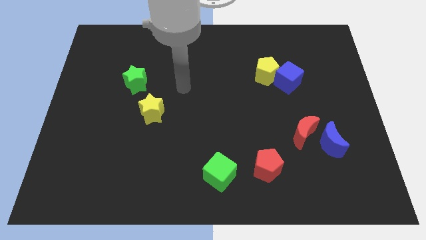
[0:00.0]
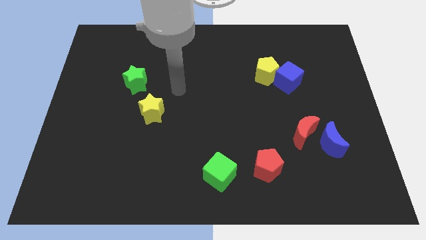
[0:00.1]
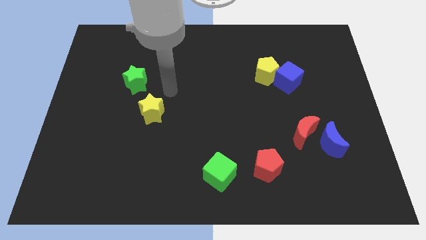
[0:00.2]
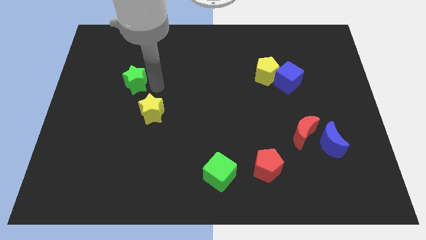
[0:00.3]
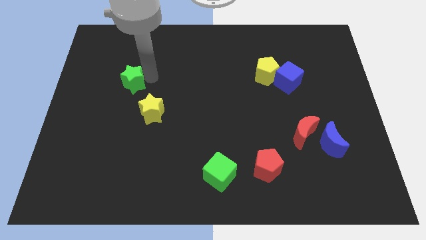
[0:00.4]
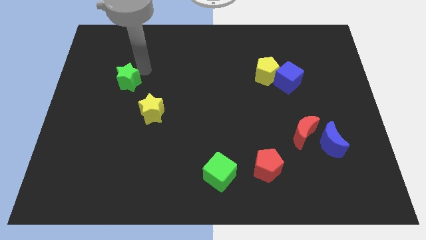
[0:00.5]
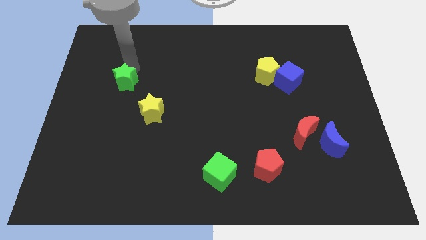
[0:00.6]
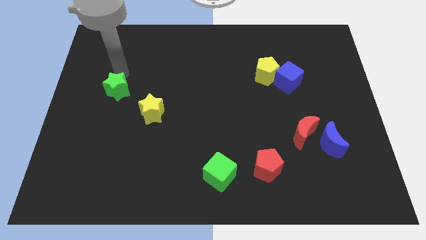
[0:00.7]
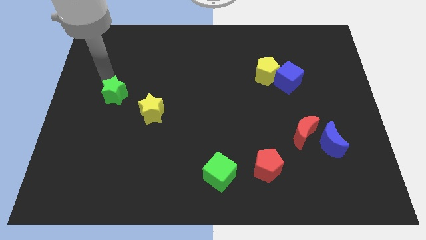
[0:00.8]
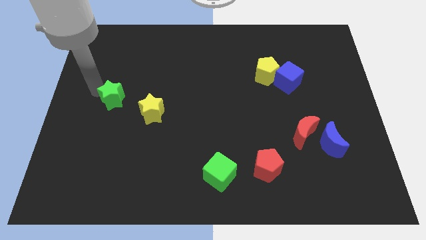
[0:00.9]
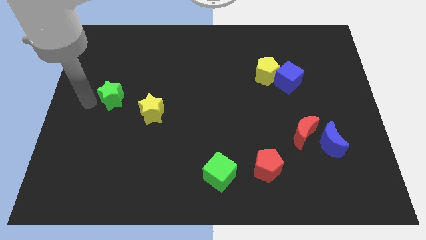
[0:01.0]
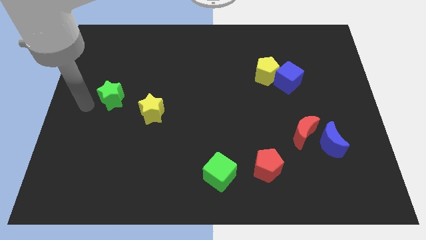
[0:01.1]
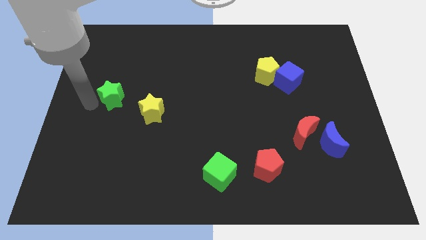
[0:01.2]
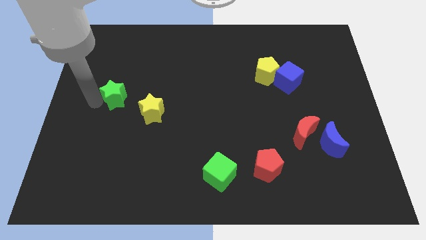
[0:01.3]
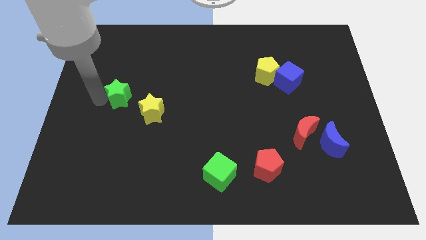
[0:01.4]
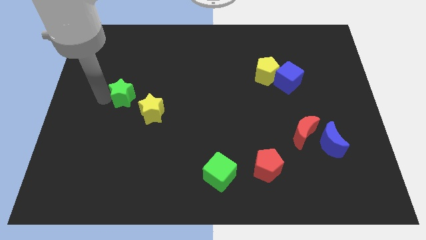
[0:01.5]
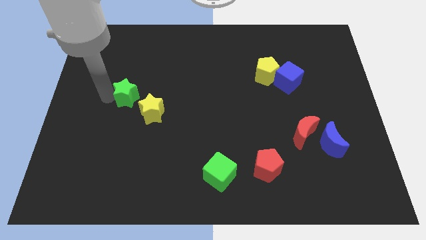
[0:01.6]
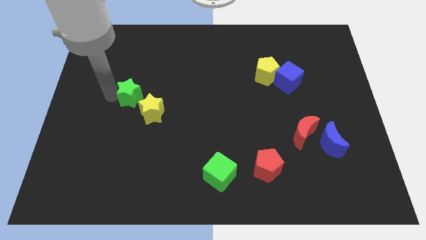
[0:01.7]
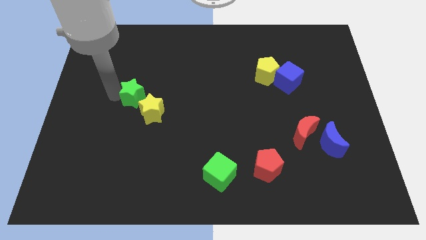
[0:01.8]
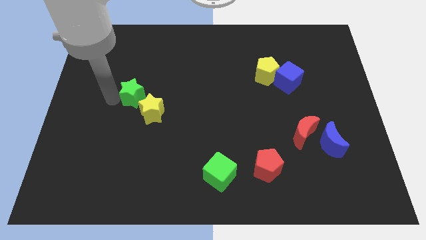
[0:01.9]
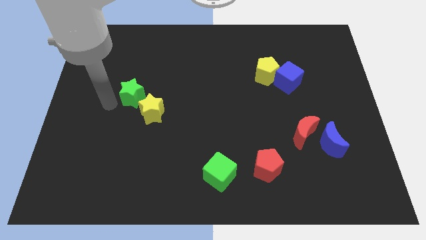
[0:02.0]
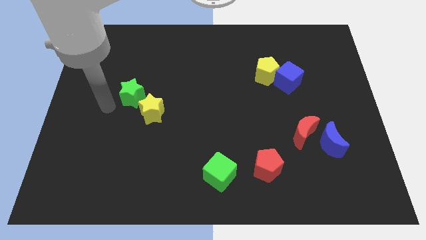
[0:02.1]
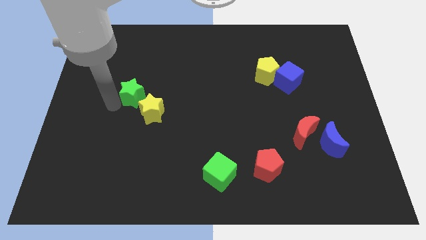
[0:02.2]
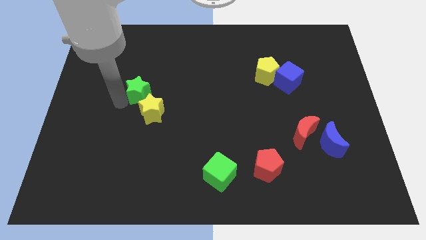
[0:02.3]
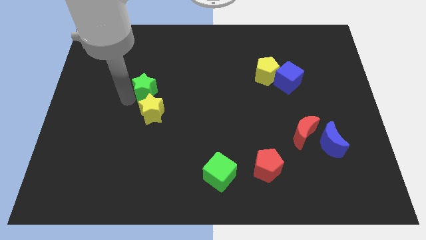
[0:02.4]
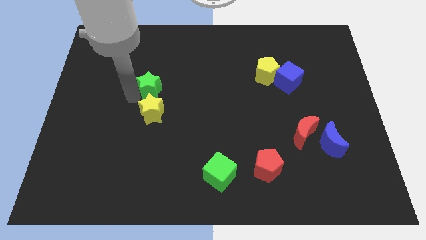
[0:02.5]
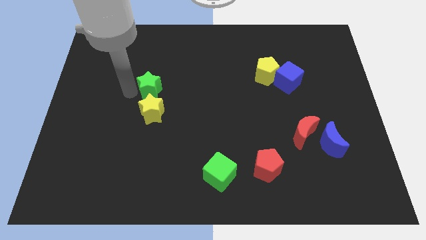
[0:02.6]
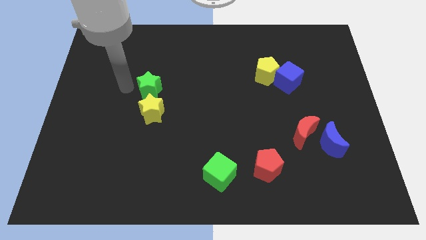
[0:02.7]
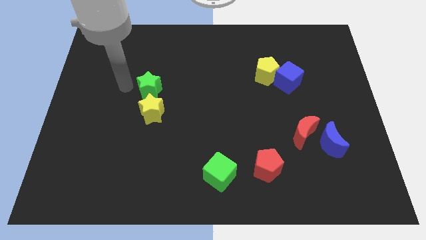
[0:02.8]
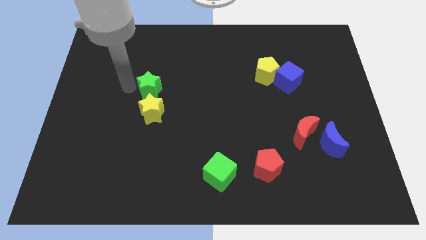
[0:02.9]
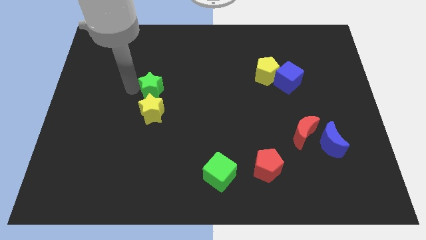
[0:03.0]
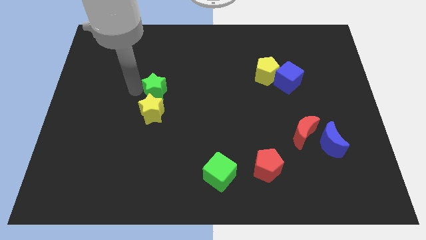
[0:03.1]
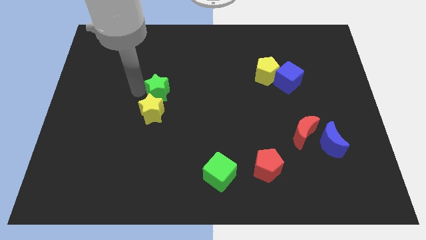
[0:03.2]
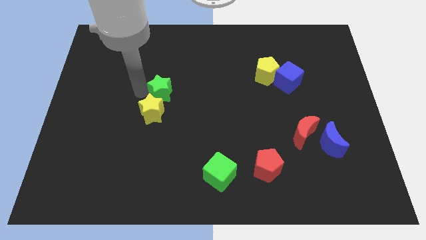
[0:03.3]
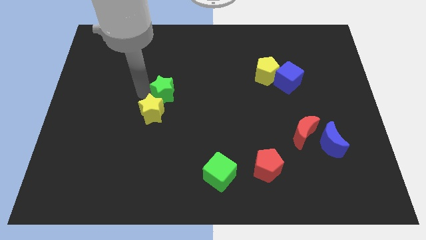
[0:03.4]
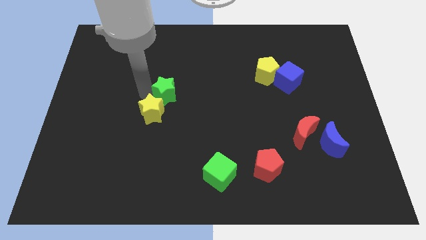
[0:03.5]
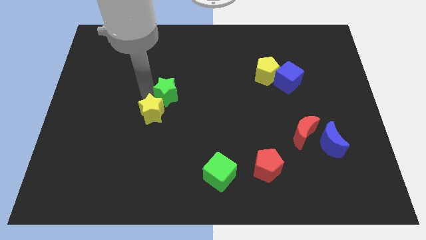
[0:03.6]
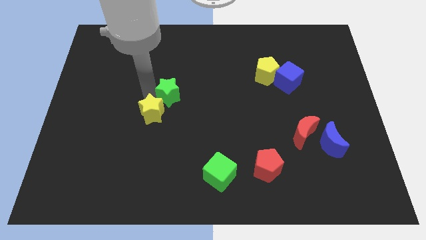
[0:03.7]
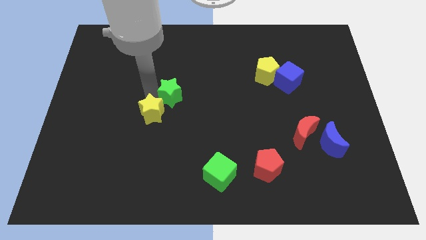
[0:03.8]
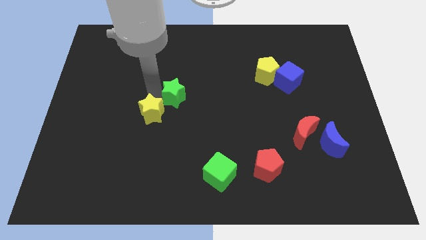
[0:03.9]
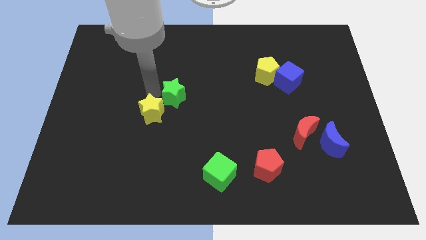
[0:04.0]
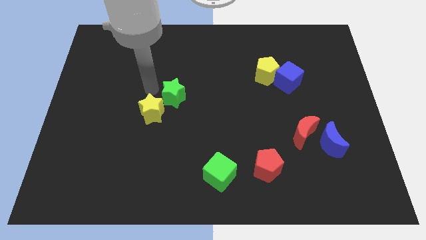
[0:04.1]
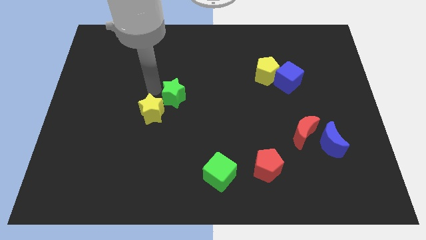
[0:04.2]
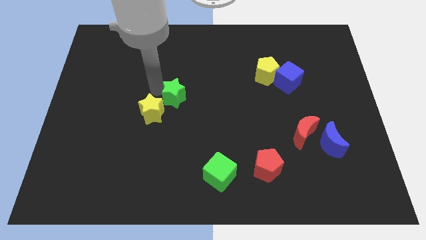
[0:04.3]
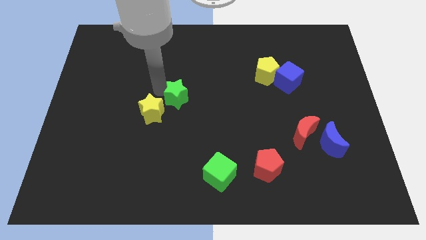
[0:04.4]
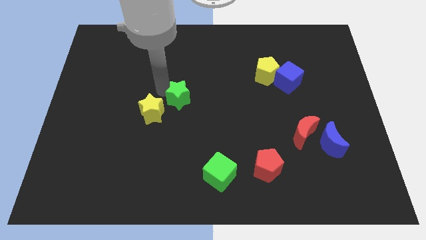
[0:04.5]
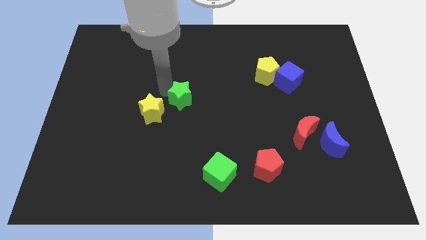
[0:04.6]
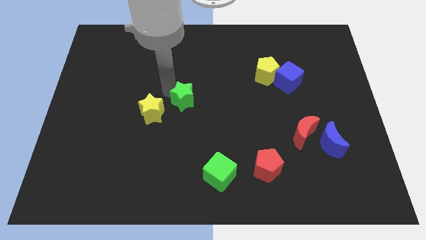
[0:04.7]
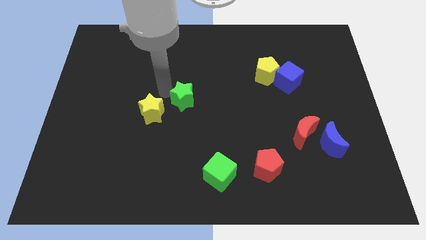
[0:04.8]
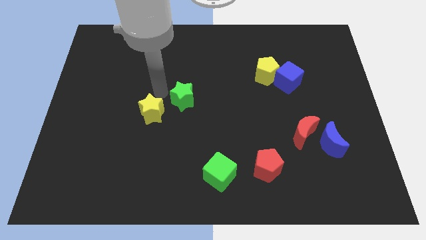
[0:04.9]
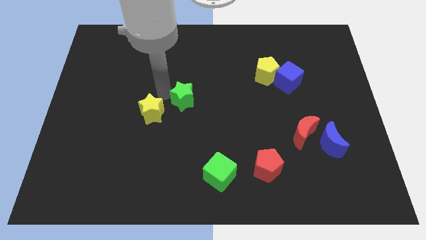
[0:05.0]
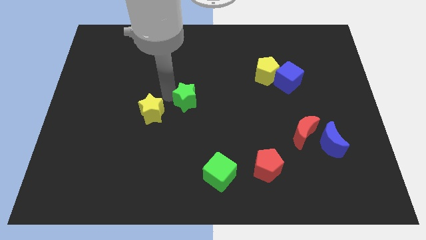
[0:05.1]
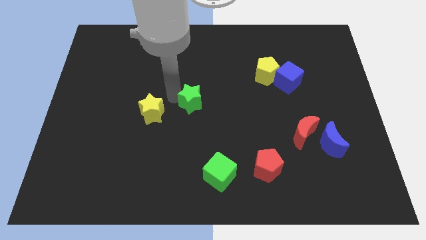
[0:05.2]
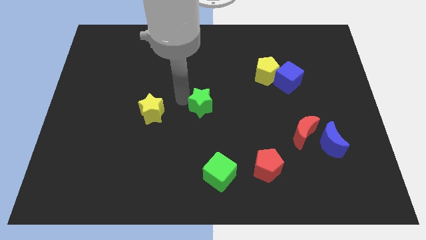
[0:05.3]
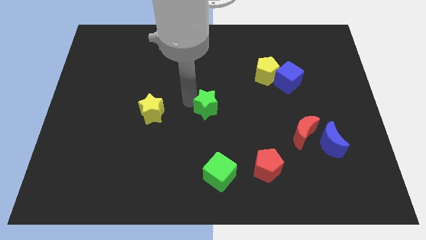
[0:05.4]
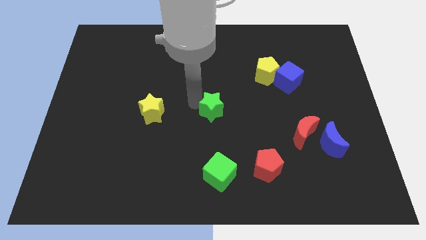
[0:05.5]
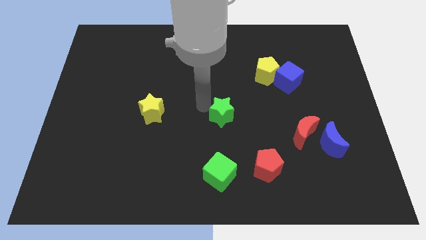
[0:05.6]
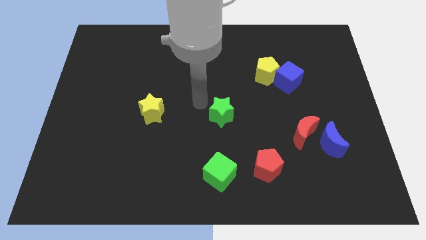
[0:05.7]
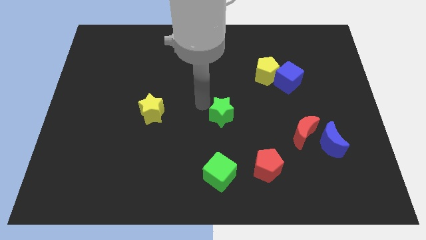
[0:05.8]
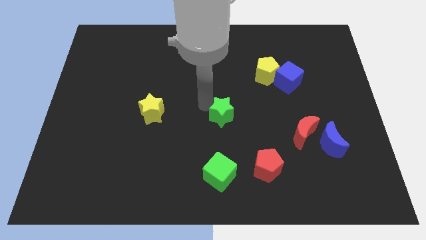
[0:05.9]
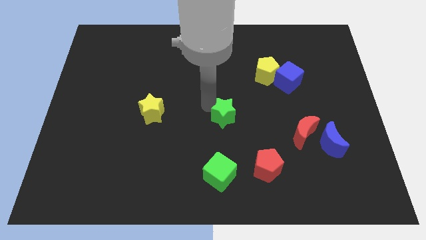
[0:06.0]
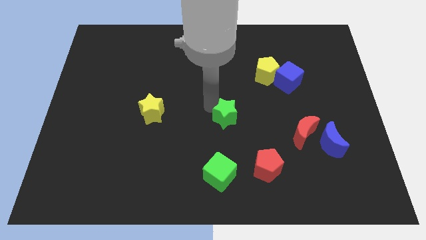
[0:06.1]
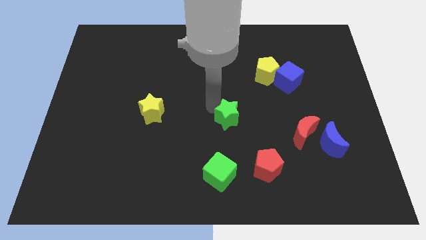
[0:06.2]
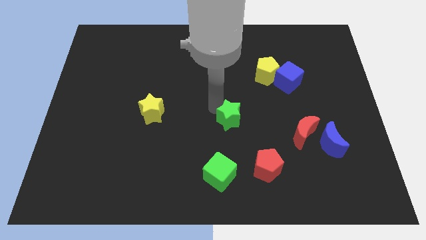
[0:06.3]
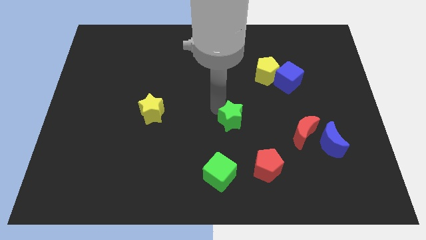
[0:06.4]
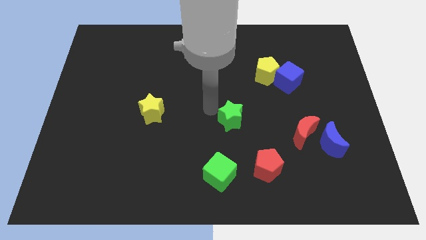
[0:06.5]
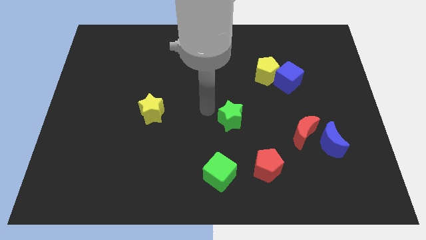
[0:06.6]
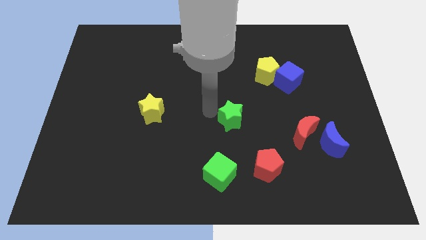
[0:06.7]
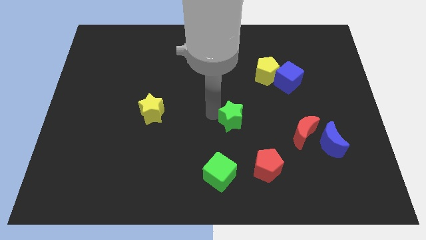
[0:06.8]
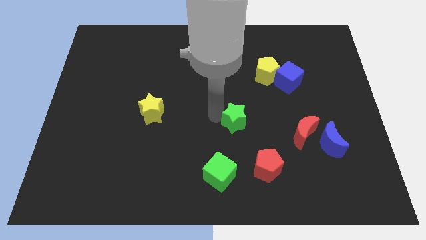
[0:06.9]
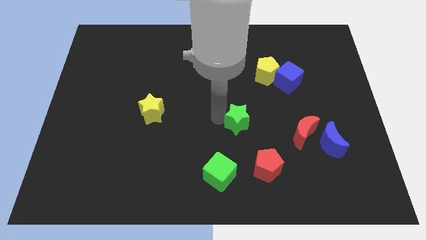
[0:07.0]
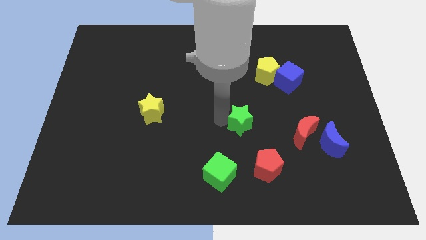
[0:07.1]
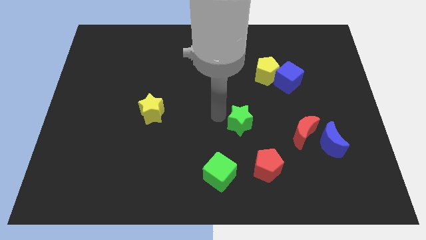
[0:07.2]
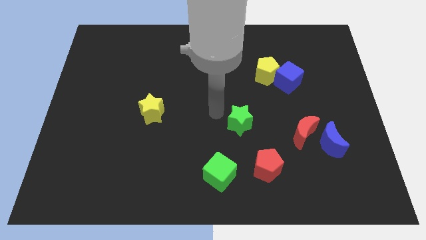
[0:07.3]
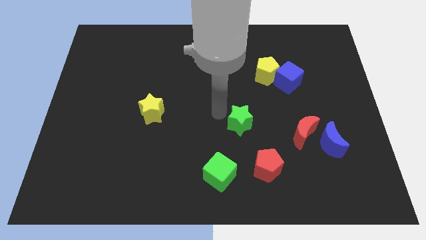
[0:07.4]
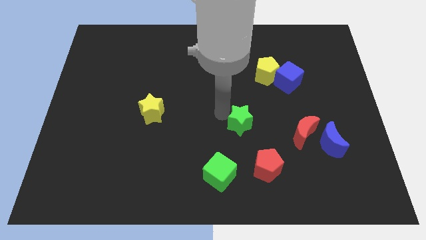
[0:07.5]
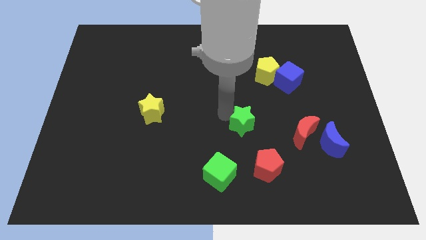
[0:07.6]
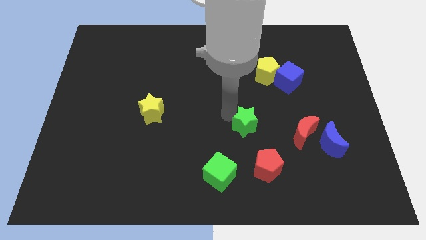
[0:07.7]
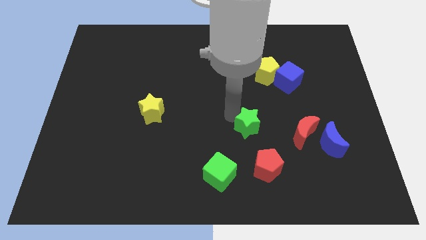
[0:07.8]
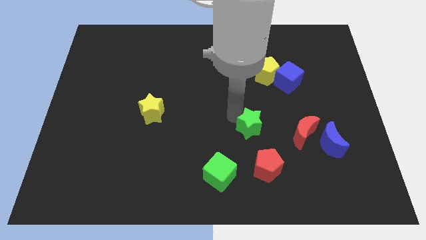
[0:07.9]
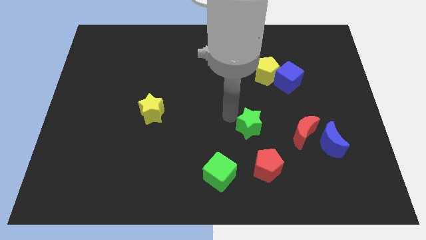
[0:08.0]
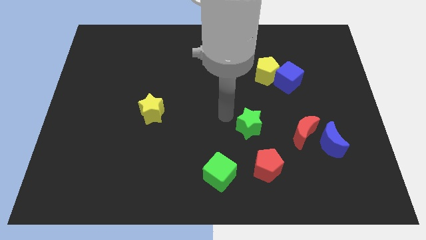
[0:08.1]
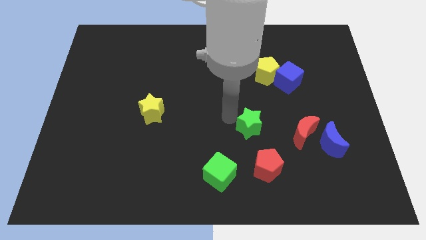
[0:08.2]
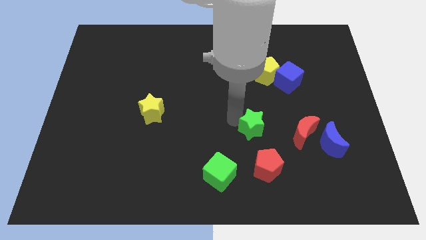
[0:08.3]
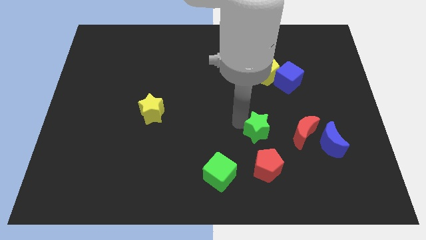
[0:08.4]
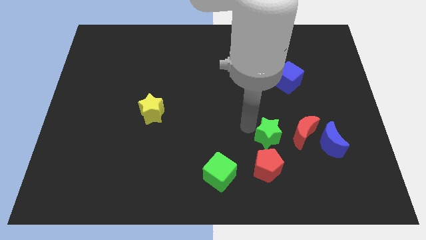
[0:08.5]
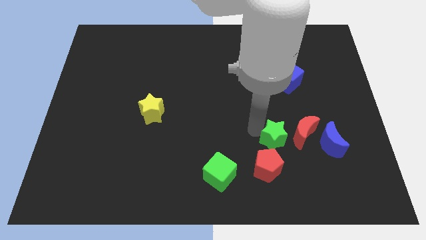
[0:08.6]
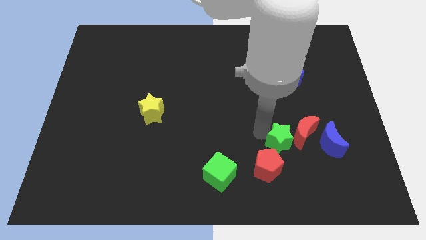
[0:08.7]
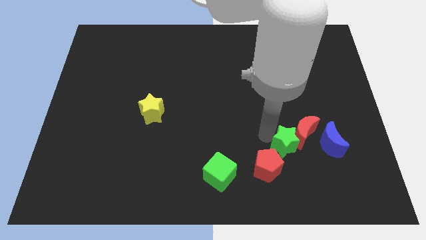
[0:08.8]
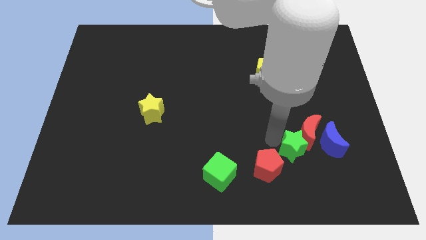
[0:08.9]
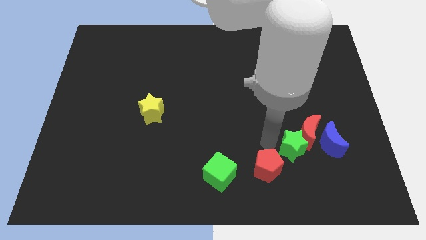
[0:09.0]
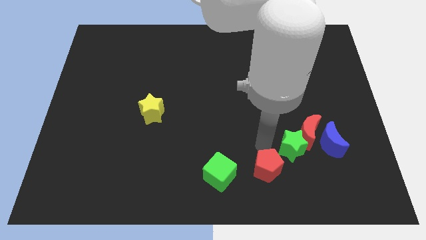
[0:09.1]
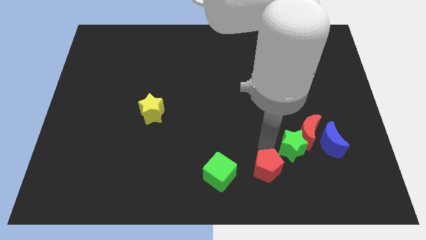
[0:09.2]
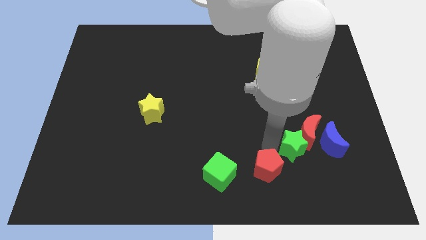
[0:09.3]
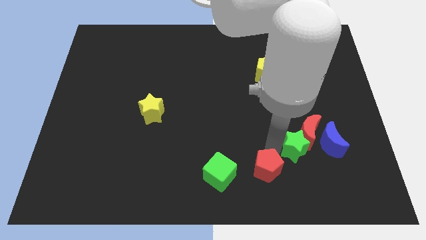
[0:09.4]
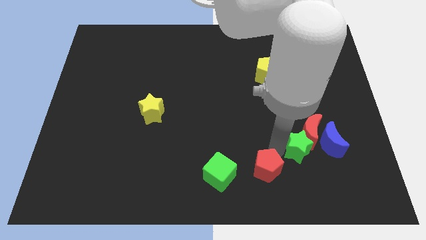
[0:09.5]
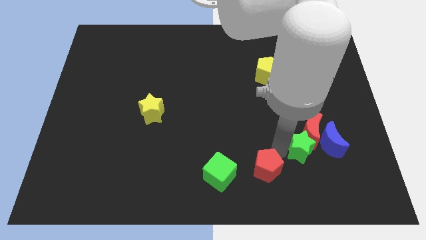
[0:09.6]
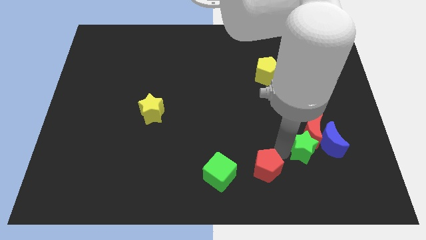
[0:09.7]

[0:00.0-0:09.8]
slide the green star towards the blue moon
